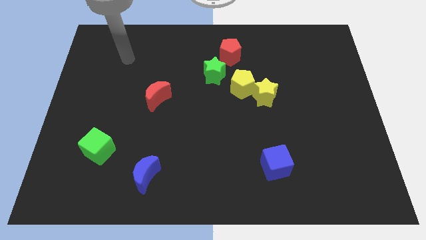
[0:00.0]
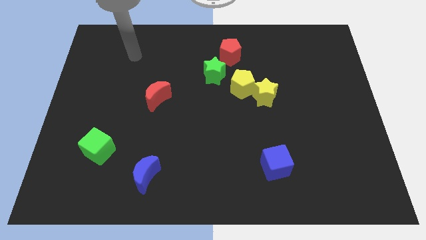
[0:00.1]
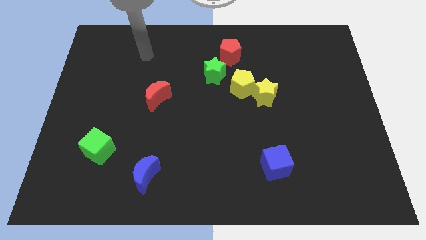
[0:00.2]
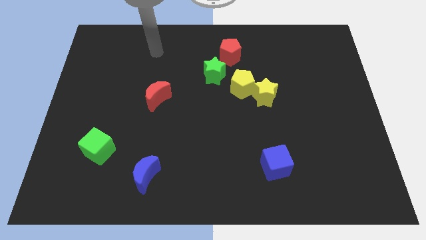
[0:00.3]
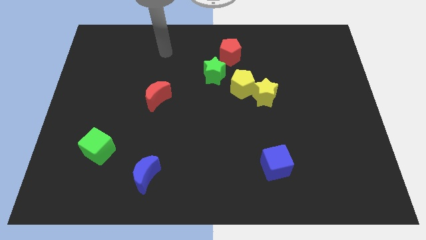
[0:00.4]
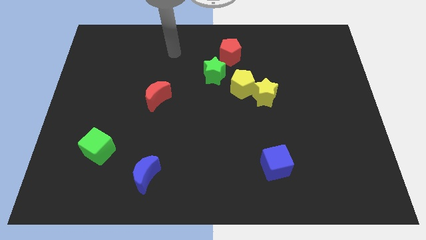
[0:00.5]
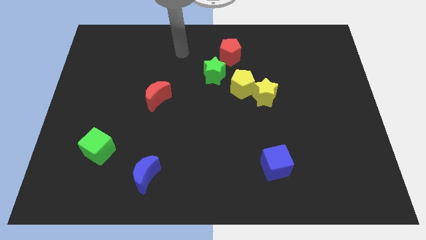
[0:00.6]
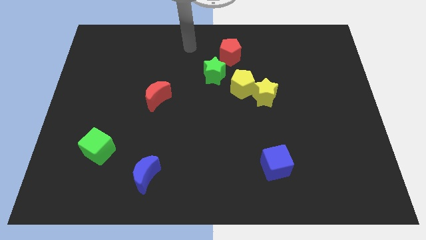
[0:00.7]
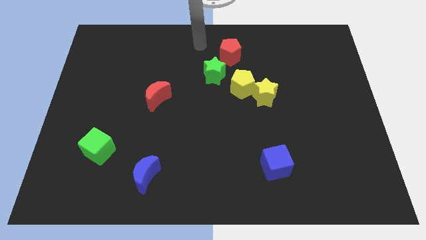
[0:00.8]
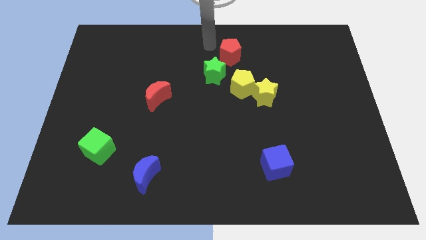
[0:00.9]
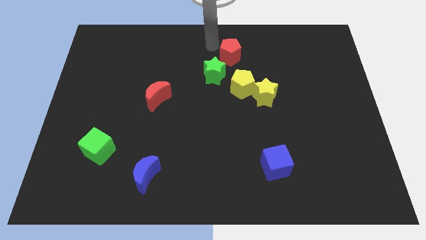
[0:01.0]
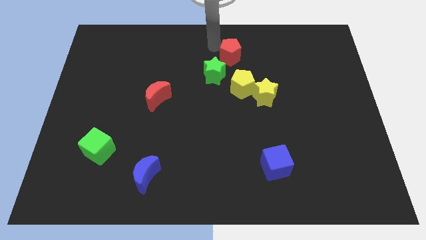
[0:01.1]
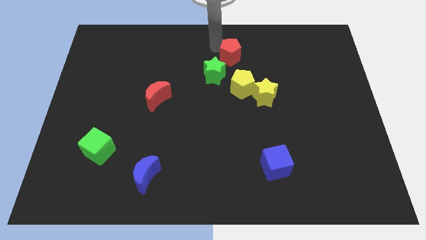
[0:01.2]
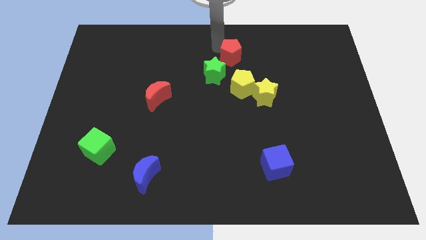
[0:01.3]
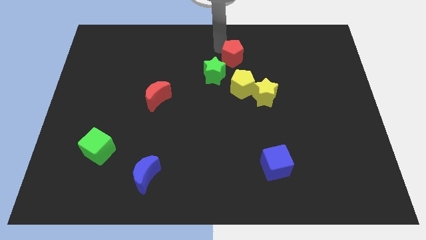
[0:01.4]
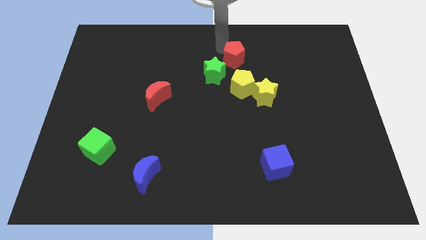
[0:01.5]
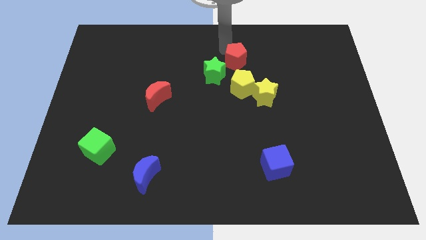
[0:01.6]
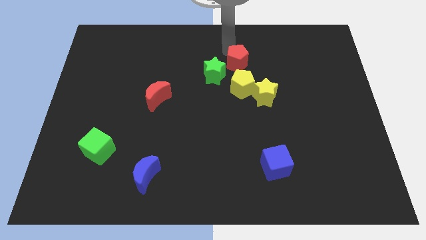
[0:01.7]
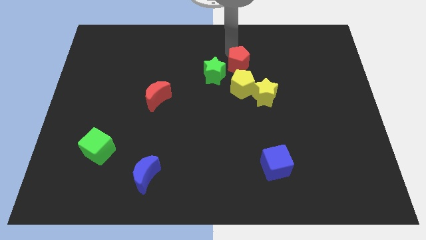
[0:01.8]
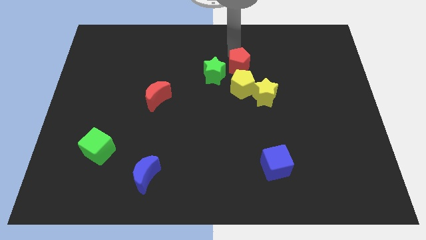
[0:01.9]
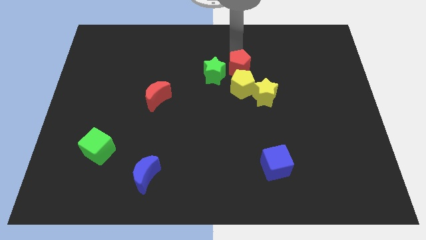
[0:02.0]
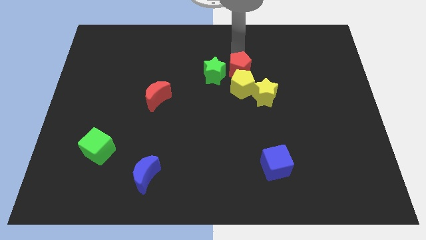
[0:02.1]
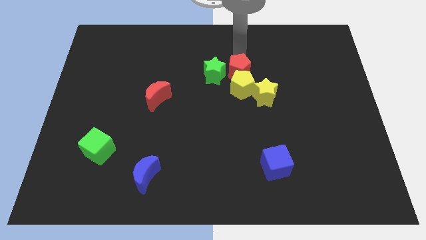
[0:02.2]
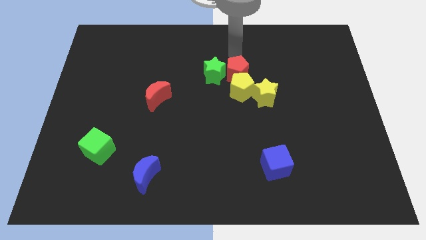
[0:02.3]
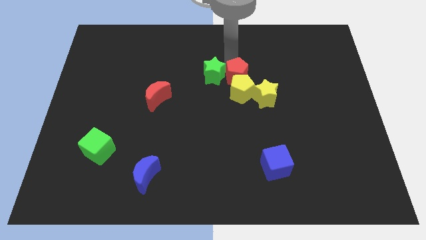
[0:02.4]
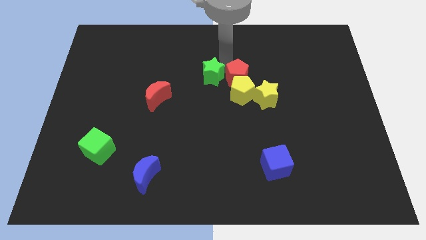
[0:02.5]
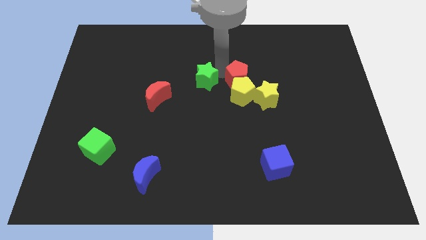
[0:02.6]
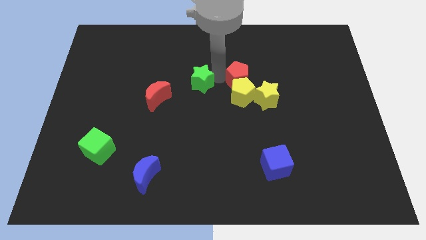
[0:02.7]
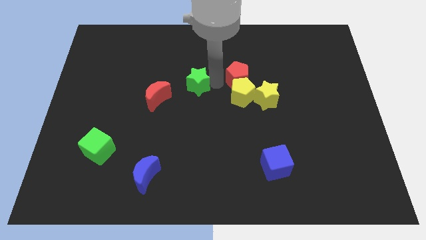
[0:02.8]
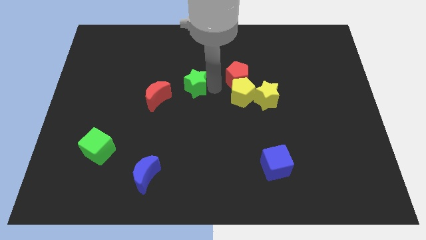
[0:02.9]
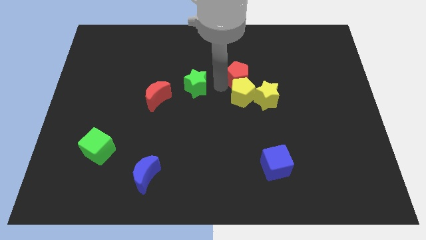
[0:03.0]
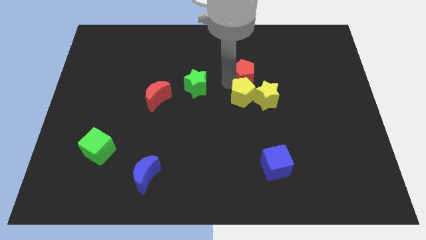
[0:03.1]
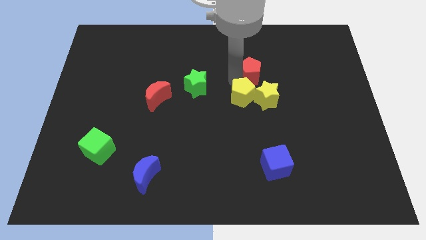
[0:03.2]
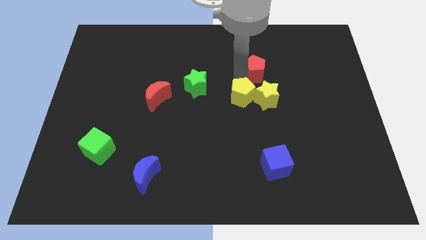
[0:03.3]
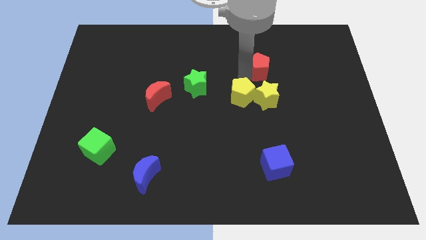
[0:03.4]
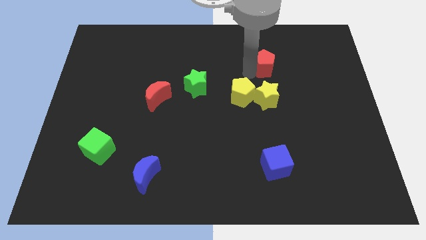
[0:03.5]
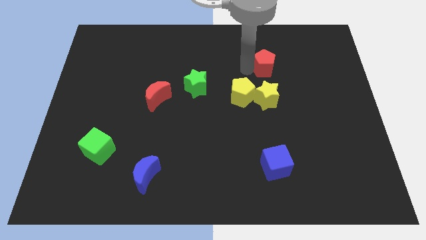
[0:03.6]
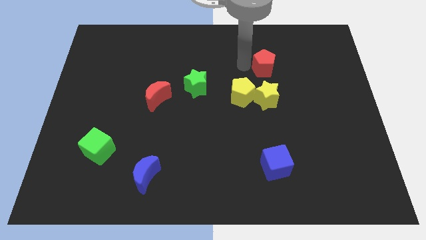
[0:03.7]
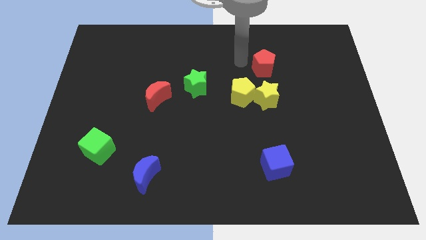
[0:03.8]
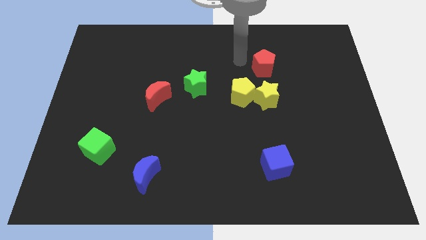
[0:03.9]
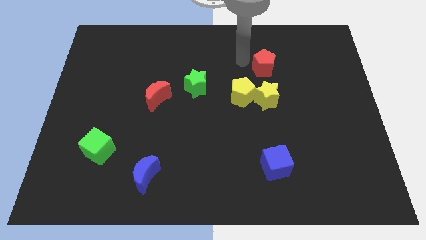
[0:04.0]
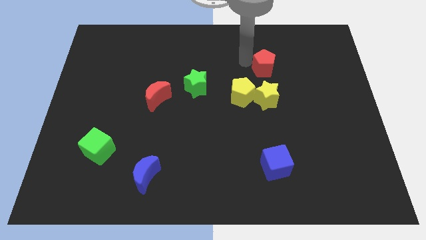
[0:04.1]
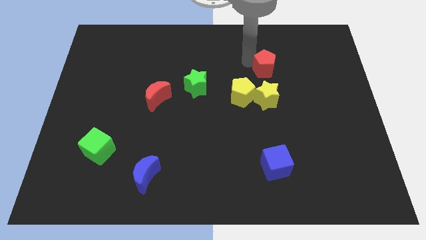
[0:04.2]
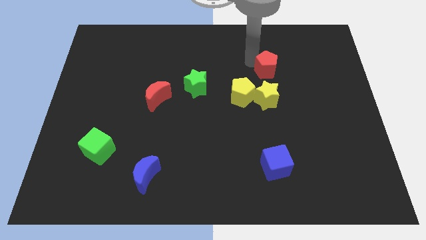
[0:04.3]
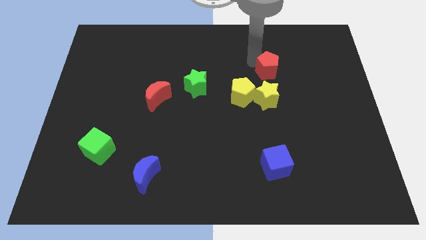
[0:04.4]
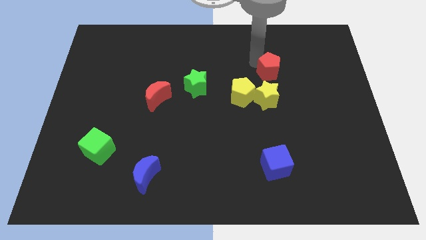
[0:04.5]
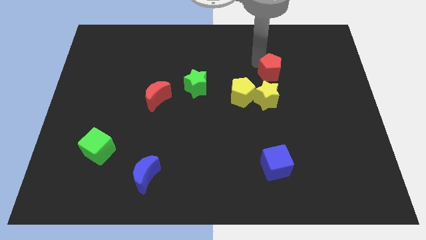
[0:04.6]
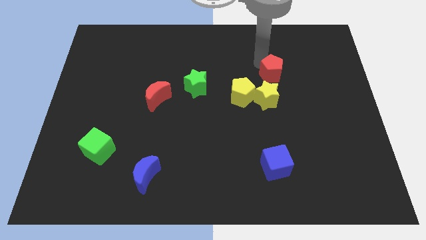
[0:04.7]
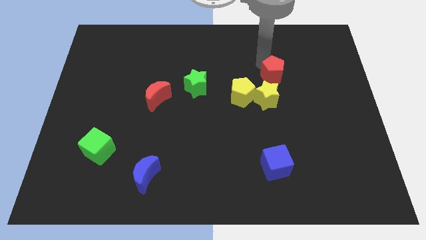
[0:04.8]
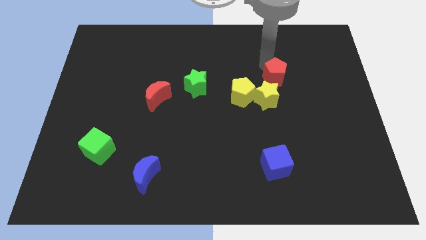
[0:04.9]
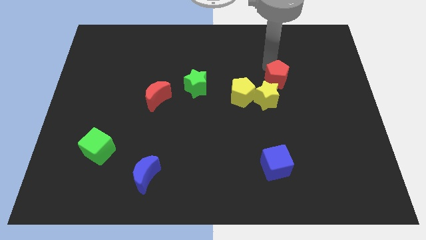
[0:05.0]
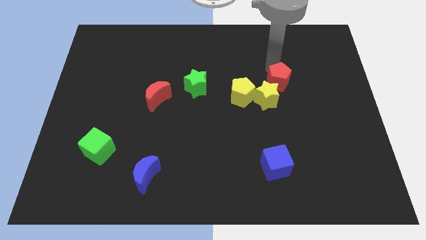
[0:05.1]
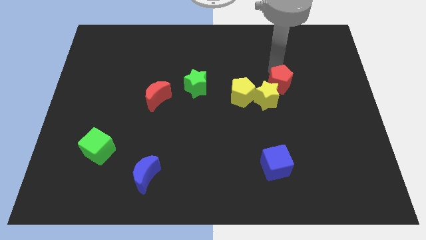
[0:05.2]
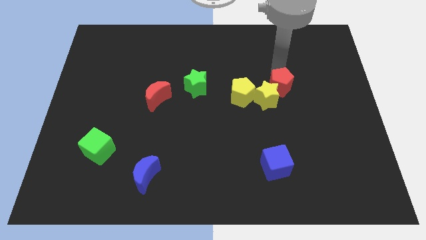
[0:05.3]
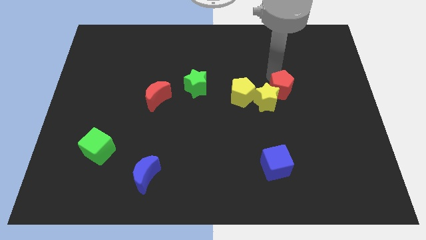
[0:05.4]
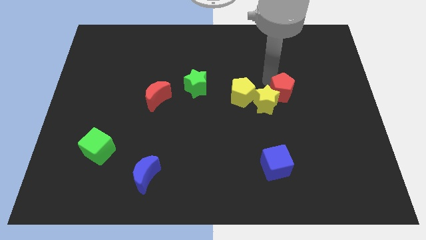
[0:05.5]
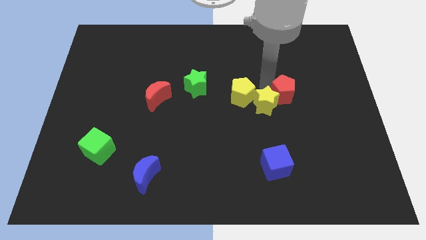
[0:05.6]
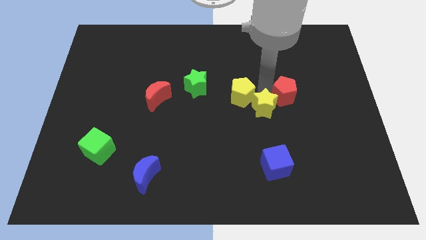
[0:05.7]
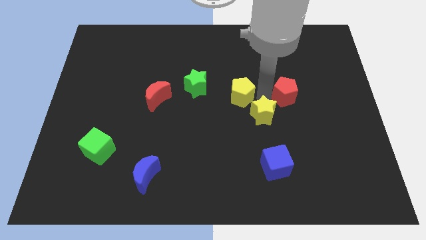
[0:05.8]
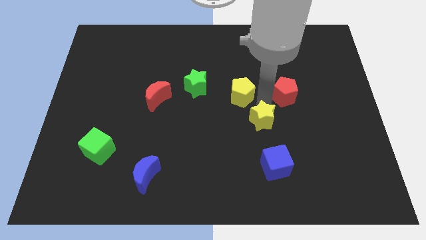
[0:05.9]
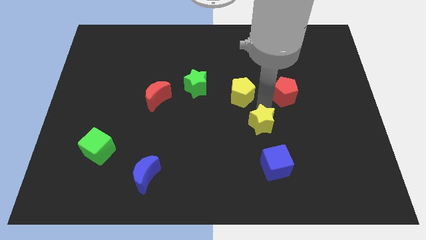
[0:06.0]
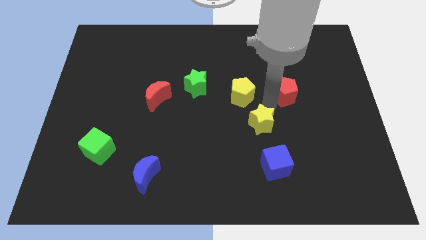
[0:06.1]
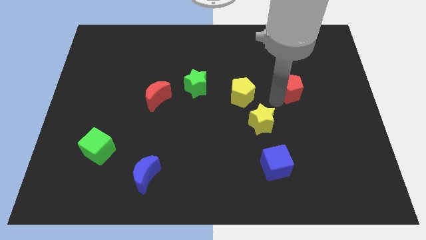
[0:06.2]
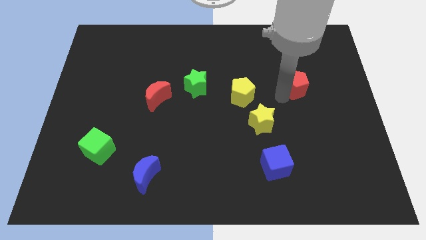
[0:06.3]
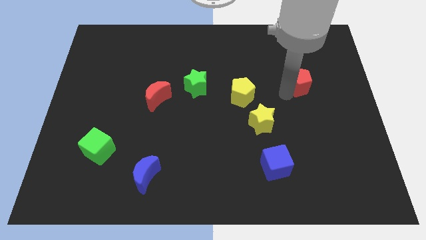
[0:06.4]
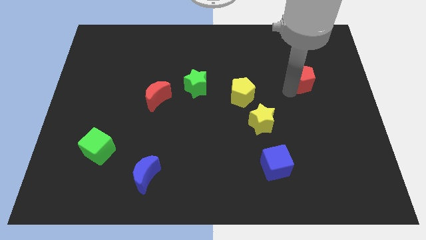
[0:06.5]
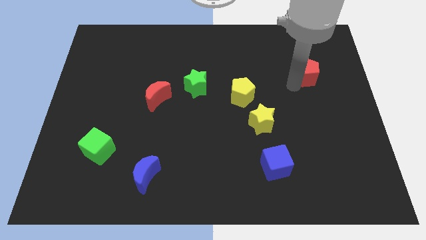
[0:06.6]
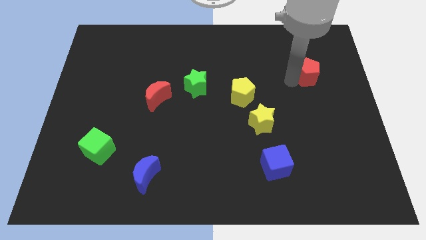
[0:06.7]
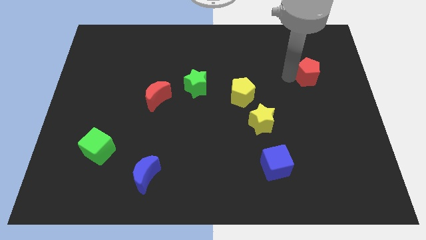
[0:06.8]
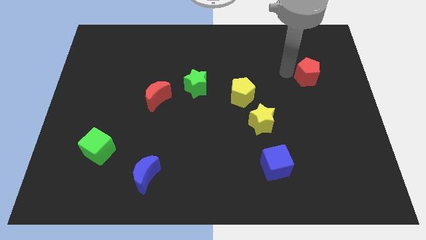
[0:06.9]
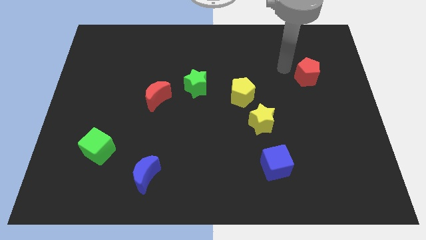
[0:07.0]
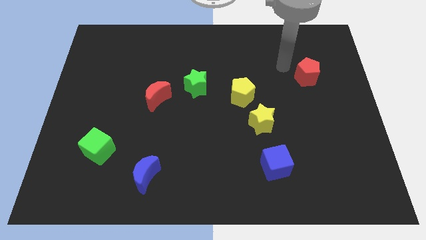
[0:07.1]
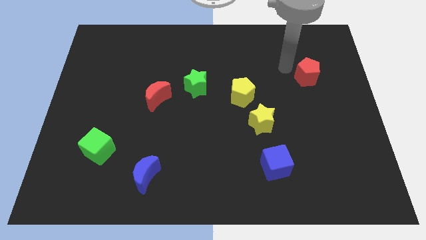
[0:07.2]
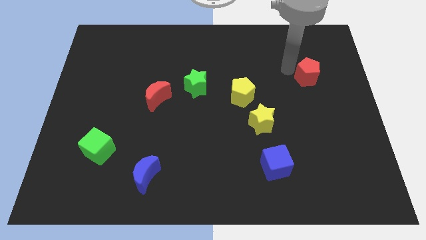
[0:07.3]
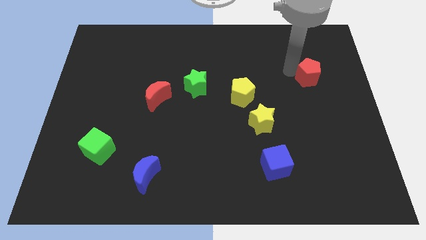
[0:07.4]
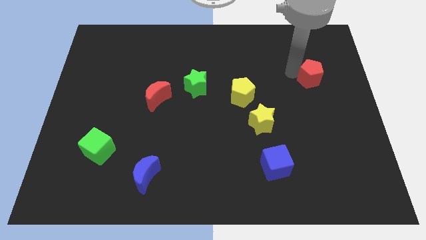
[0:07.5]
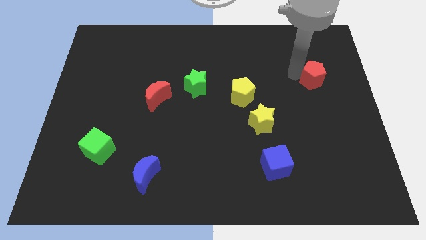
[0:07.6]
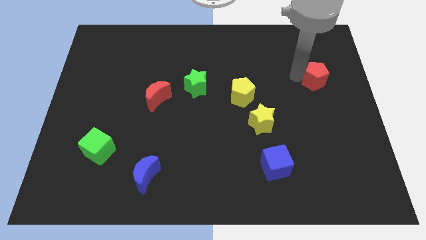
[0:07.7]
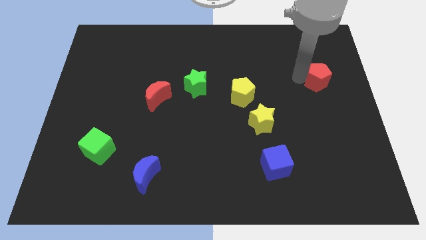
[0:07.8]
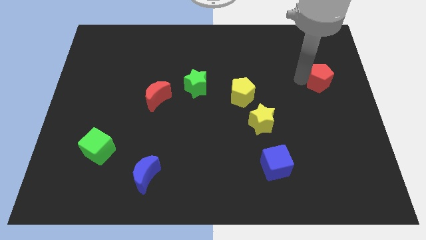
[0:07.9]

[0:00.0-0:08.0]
put the red pentagon to the right side
